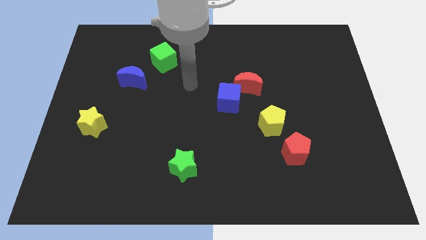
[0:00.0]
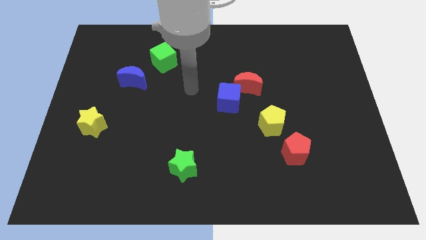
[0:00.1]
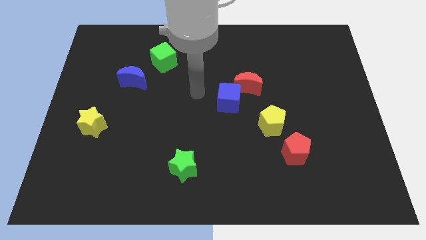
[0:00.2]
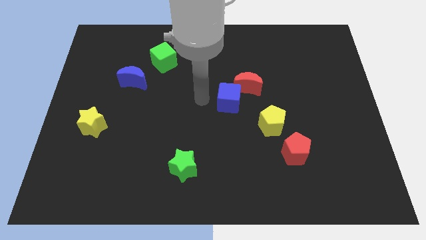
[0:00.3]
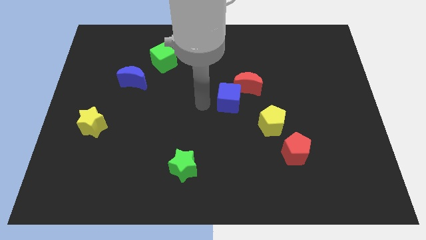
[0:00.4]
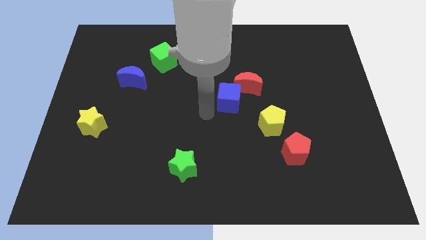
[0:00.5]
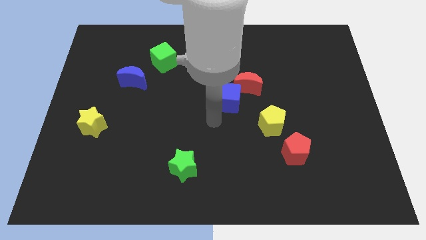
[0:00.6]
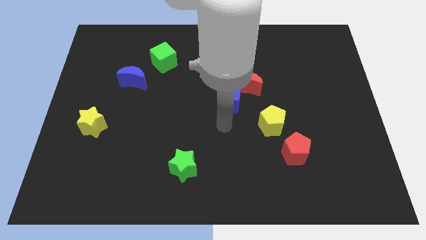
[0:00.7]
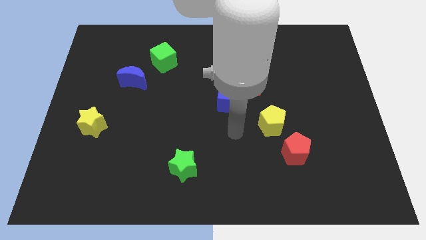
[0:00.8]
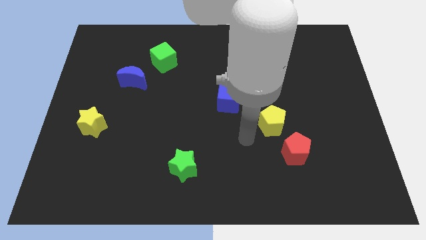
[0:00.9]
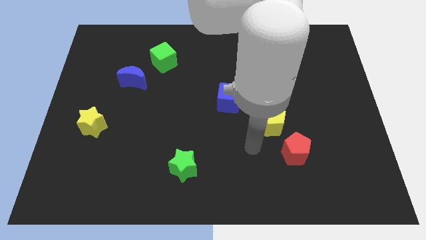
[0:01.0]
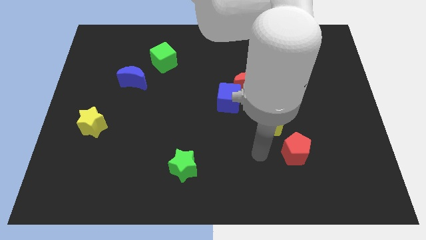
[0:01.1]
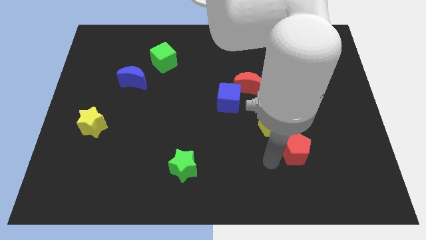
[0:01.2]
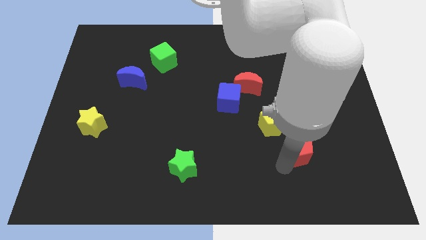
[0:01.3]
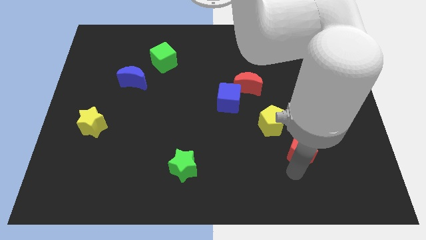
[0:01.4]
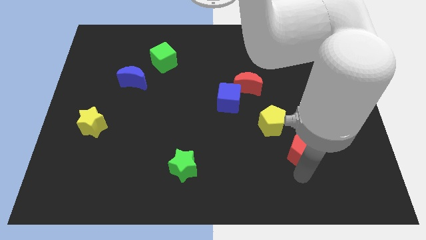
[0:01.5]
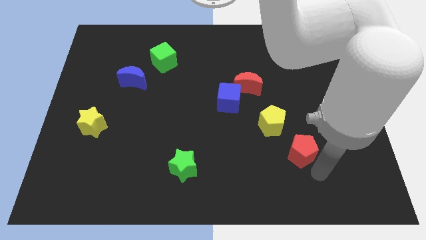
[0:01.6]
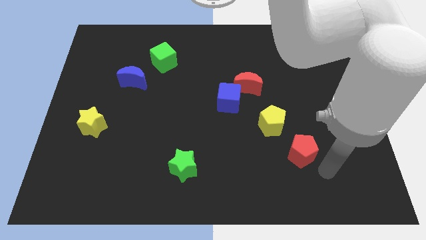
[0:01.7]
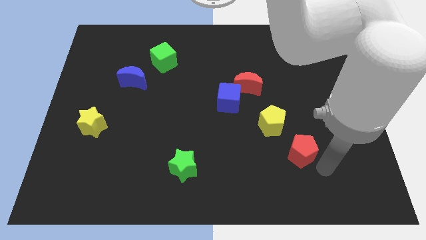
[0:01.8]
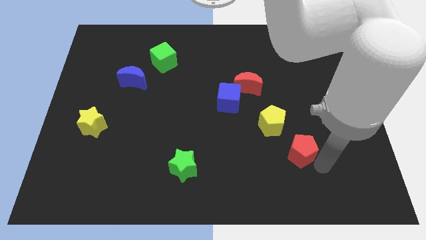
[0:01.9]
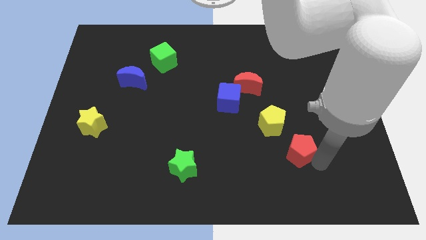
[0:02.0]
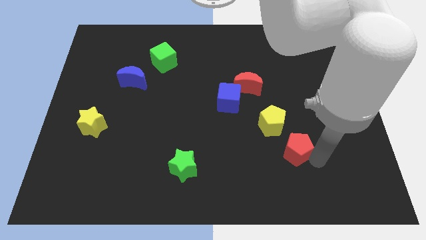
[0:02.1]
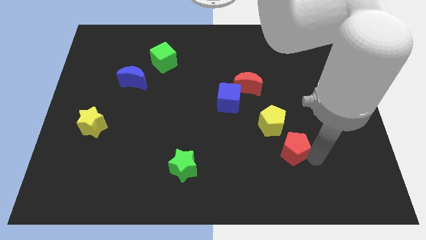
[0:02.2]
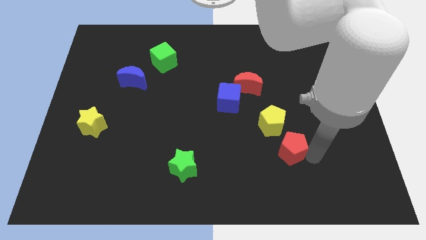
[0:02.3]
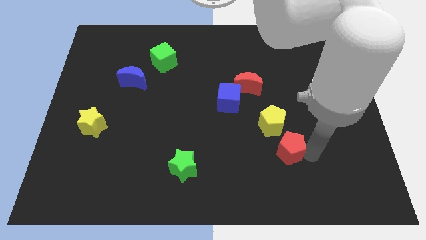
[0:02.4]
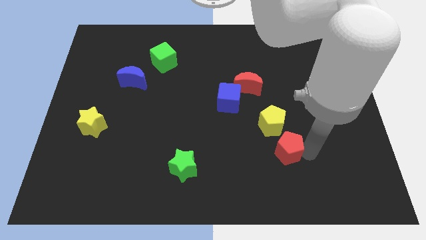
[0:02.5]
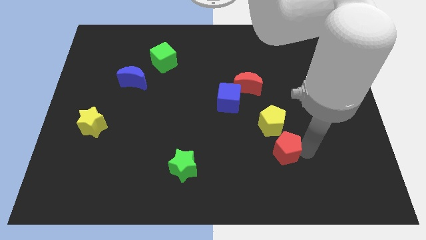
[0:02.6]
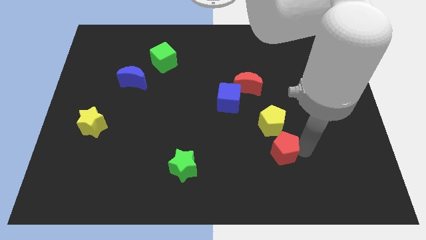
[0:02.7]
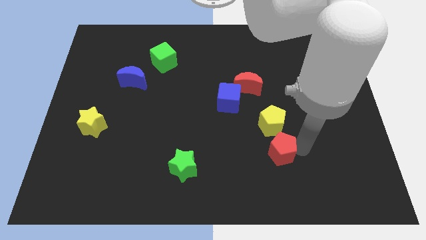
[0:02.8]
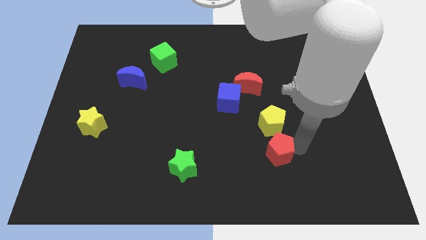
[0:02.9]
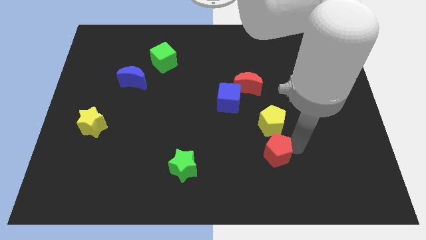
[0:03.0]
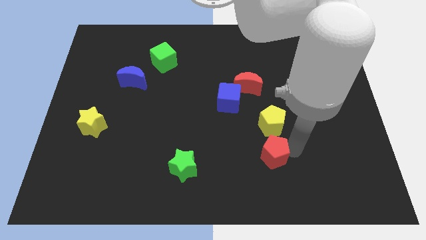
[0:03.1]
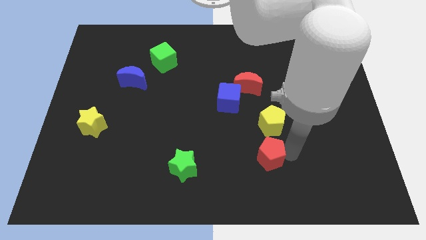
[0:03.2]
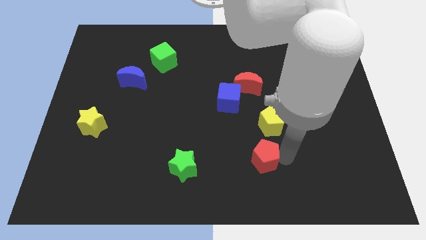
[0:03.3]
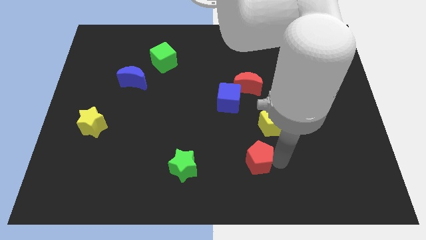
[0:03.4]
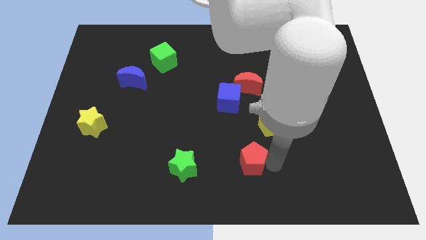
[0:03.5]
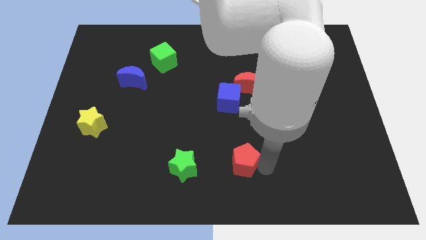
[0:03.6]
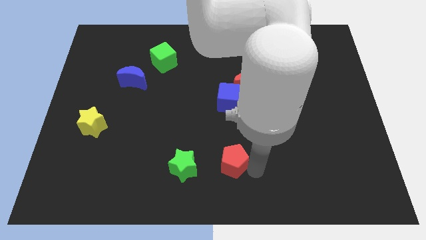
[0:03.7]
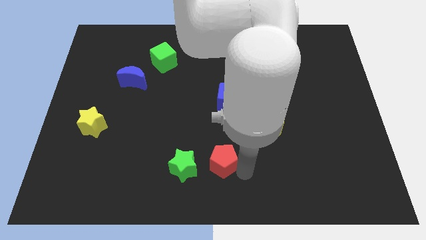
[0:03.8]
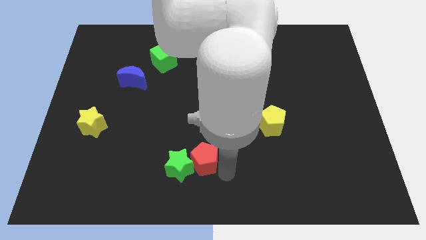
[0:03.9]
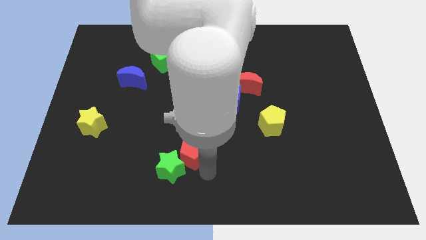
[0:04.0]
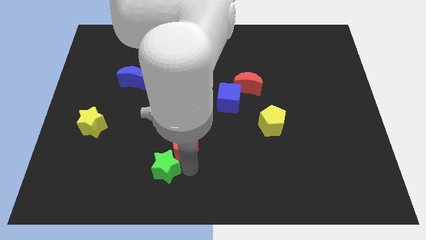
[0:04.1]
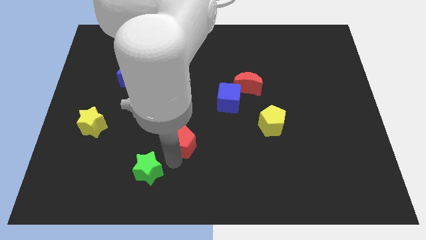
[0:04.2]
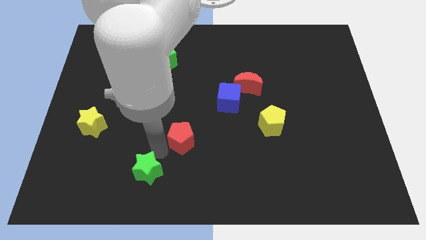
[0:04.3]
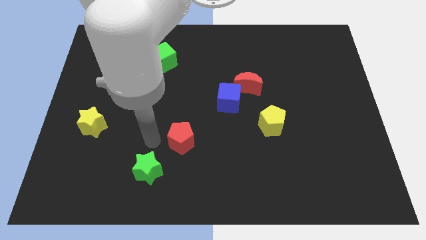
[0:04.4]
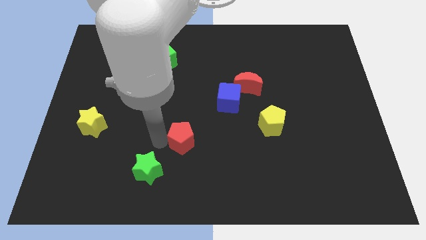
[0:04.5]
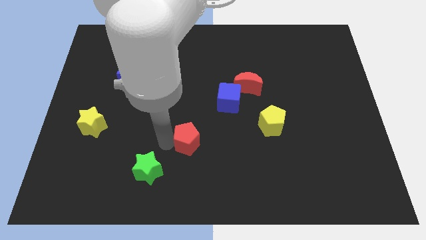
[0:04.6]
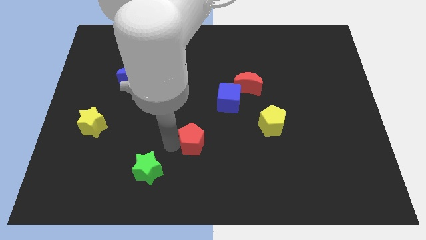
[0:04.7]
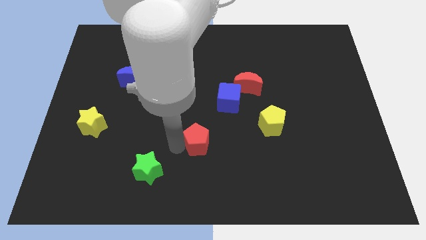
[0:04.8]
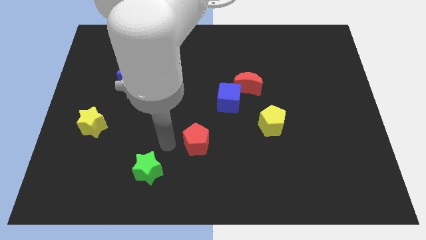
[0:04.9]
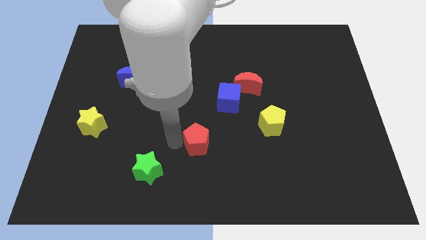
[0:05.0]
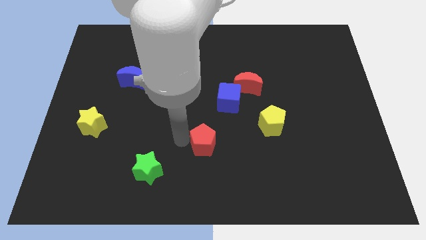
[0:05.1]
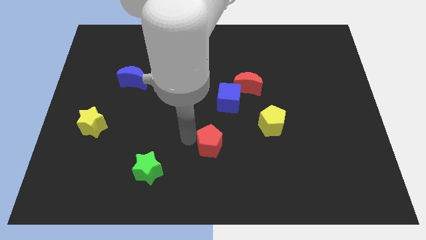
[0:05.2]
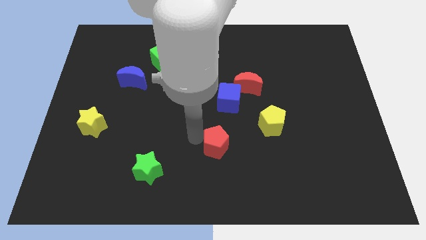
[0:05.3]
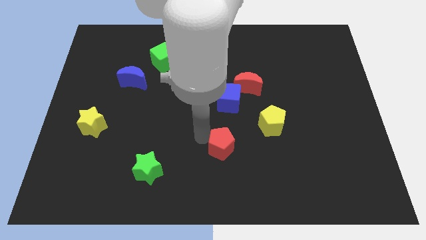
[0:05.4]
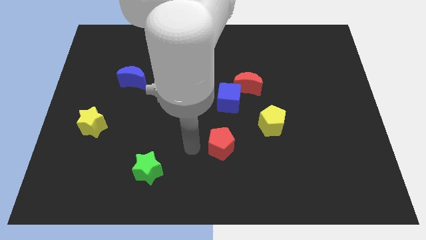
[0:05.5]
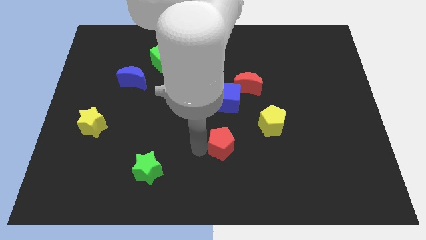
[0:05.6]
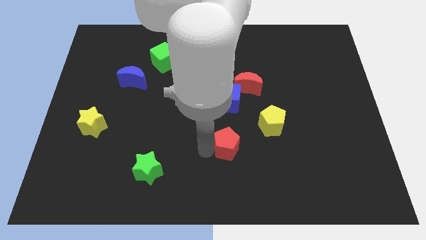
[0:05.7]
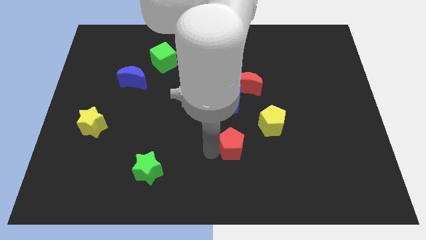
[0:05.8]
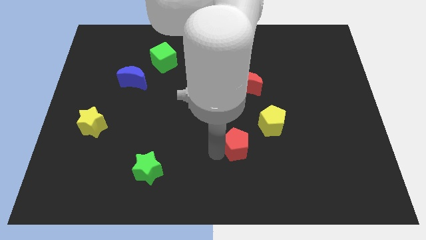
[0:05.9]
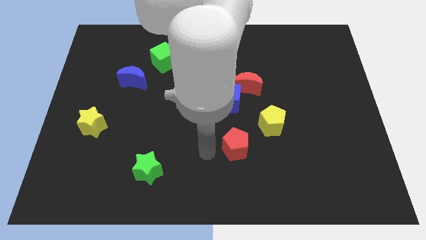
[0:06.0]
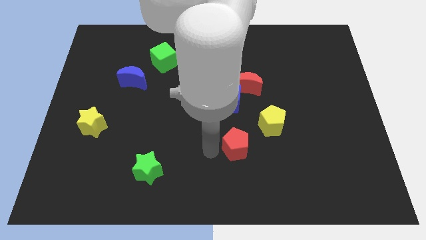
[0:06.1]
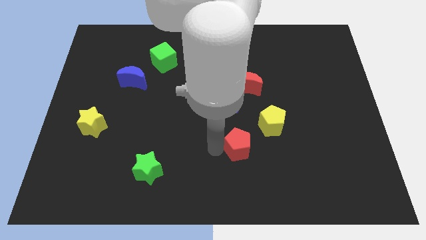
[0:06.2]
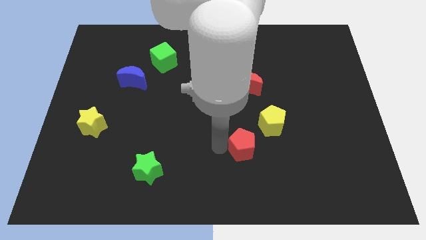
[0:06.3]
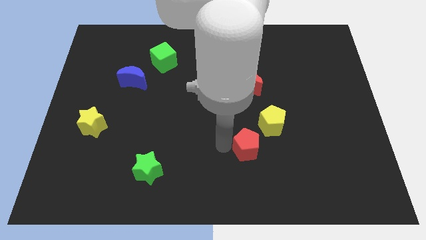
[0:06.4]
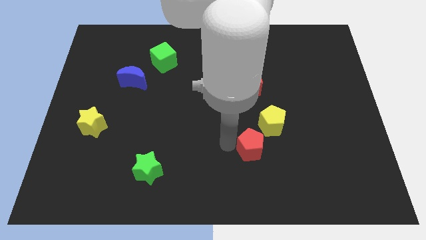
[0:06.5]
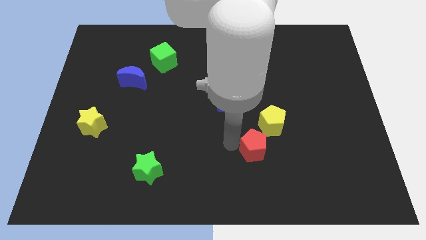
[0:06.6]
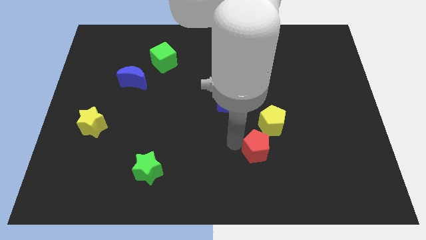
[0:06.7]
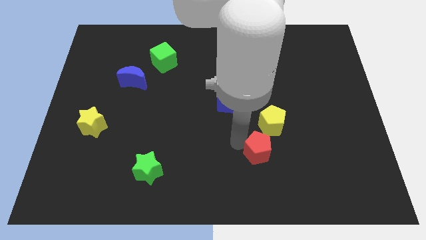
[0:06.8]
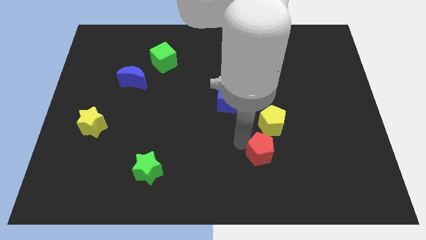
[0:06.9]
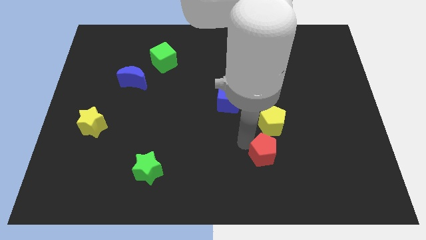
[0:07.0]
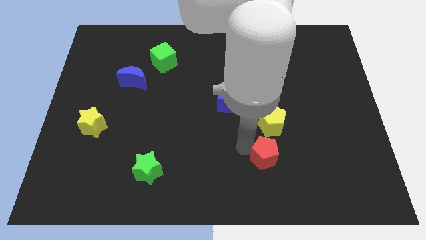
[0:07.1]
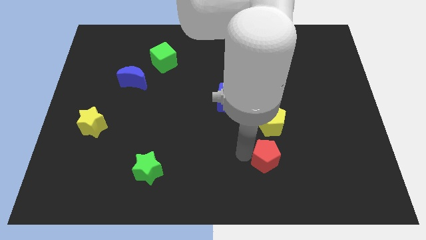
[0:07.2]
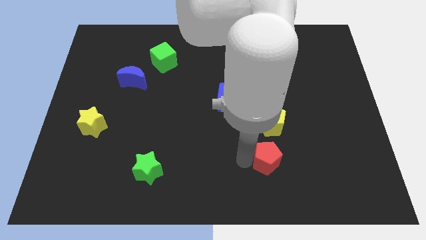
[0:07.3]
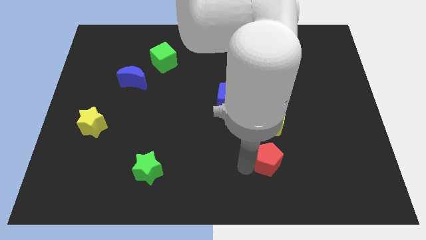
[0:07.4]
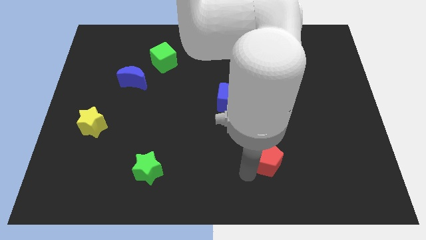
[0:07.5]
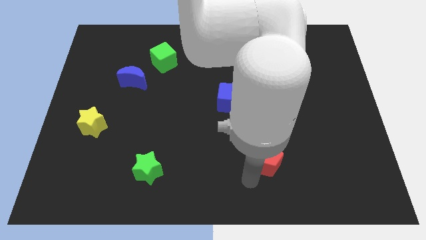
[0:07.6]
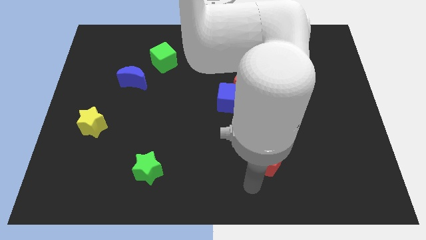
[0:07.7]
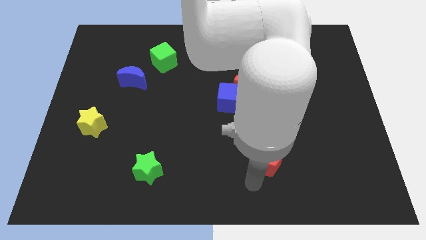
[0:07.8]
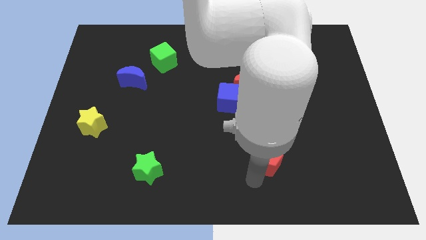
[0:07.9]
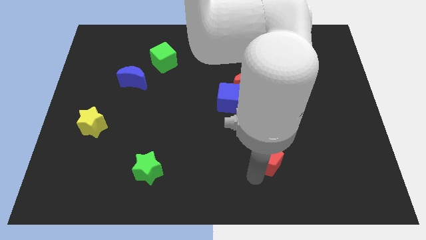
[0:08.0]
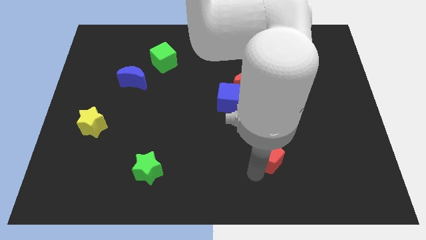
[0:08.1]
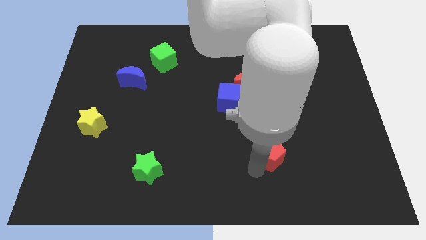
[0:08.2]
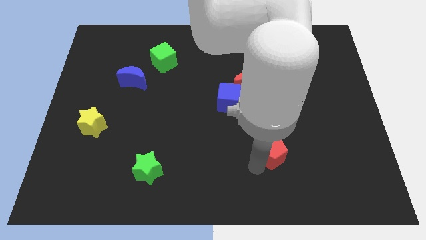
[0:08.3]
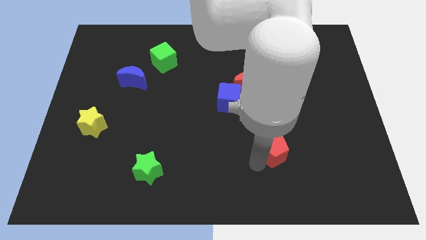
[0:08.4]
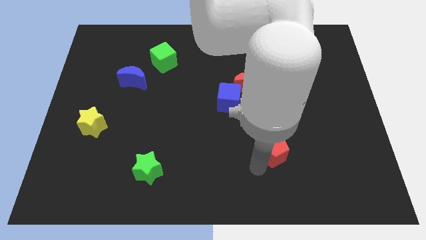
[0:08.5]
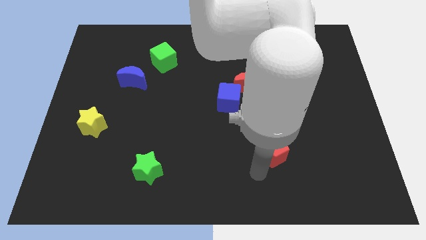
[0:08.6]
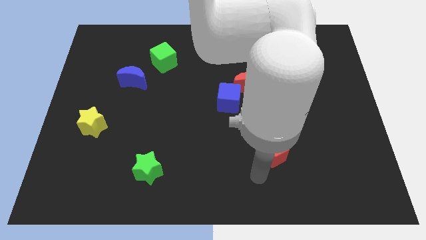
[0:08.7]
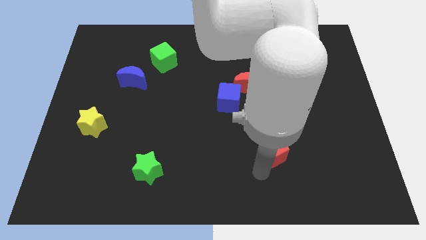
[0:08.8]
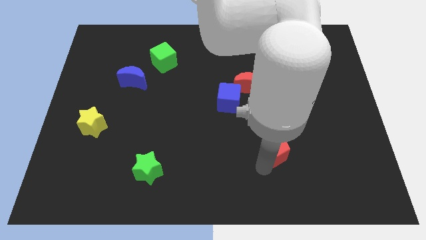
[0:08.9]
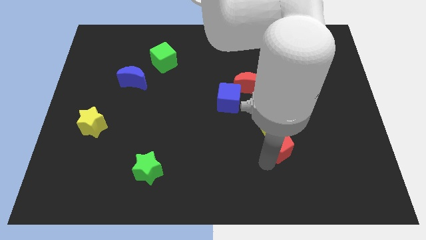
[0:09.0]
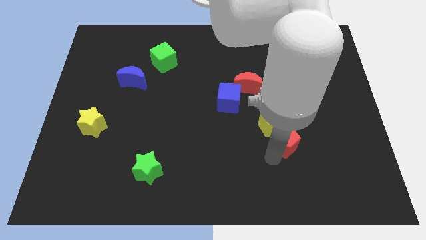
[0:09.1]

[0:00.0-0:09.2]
slide the red pentagon towards the yellow pentagon
